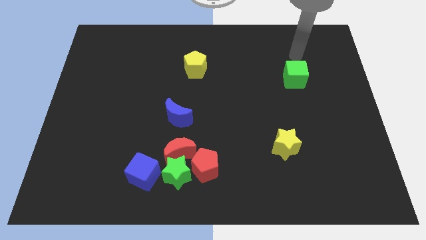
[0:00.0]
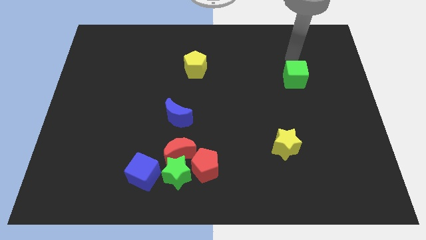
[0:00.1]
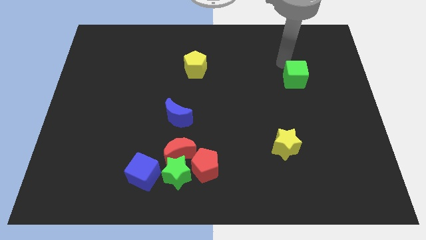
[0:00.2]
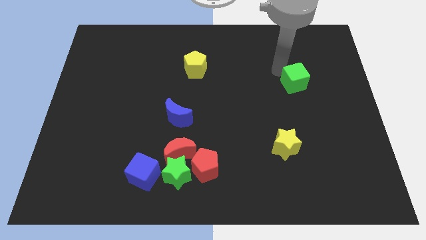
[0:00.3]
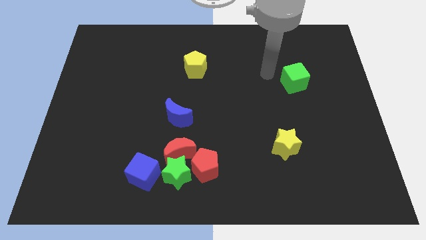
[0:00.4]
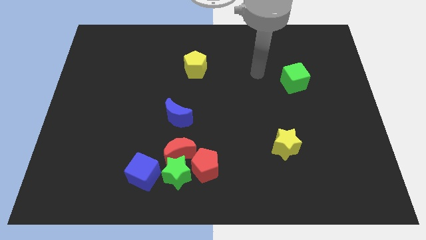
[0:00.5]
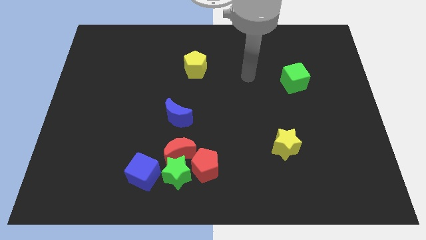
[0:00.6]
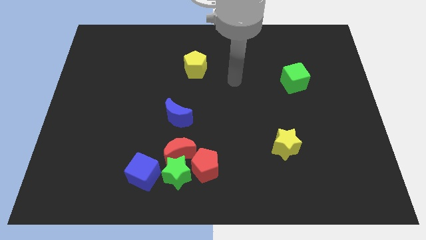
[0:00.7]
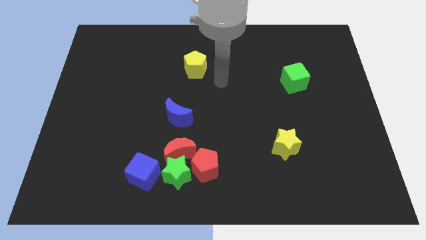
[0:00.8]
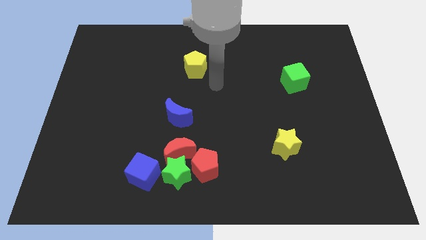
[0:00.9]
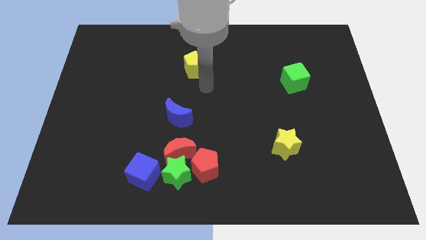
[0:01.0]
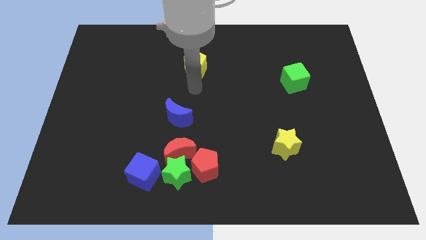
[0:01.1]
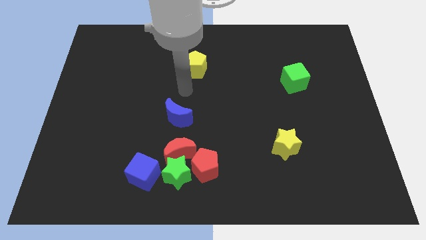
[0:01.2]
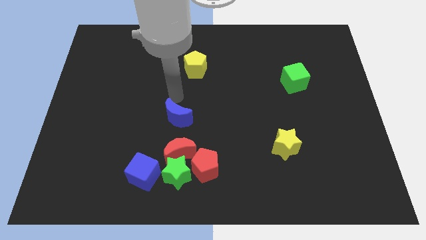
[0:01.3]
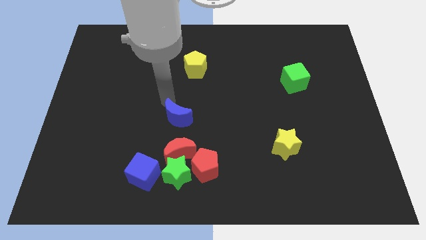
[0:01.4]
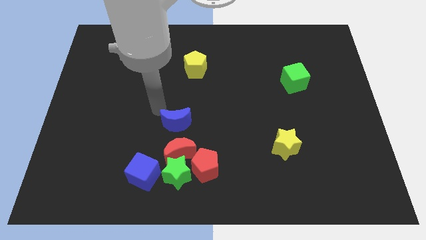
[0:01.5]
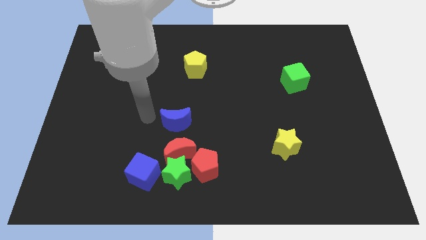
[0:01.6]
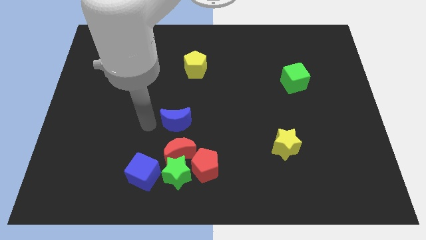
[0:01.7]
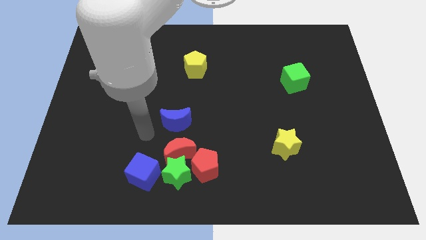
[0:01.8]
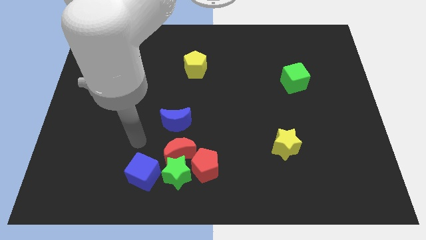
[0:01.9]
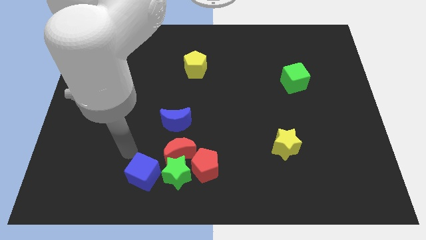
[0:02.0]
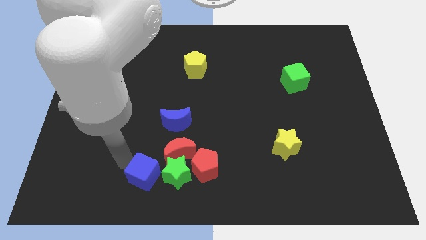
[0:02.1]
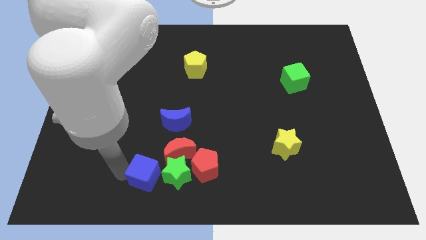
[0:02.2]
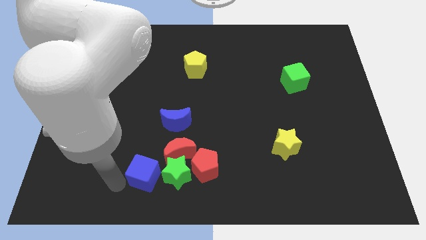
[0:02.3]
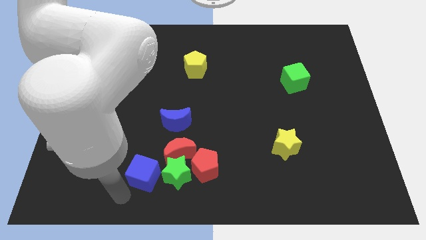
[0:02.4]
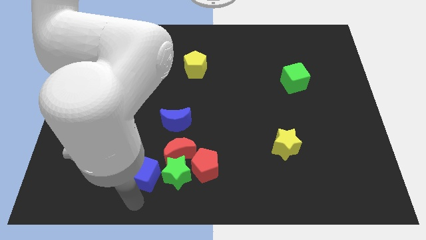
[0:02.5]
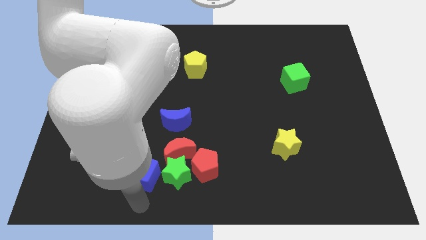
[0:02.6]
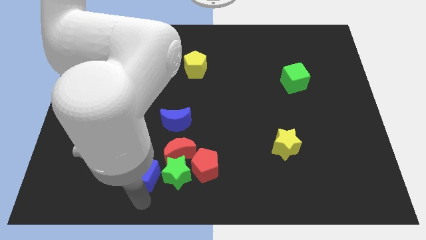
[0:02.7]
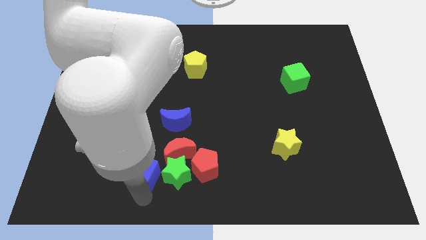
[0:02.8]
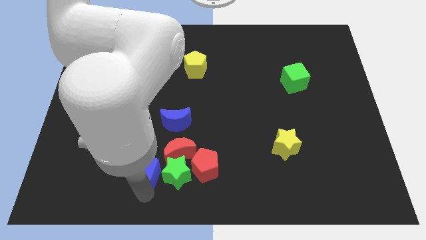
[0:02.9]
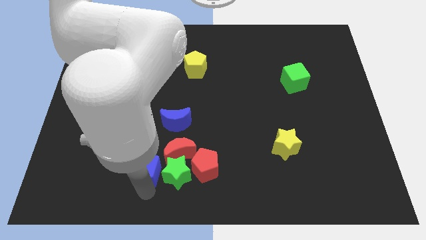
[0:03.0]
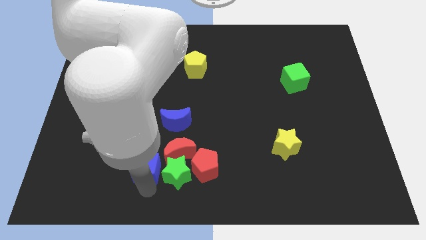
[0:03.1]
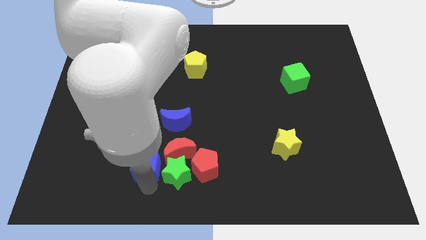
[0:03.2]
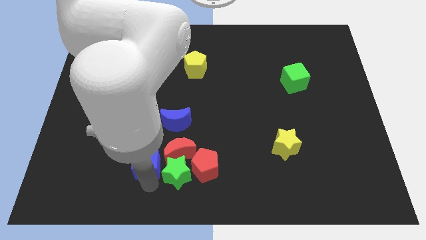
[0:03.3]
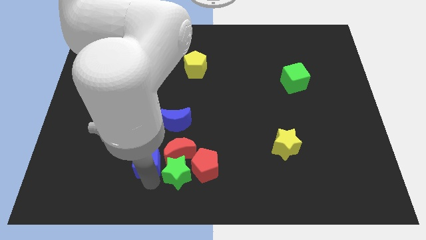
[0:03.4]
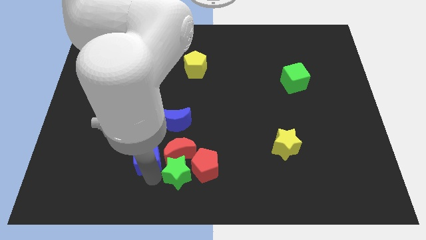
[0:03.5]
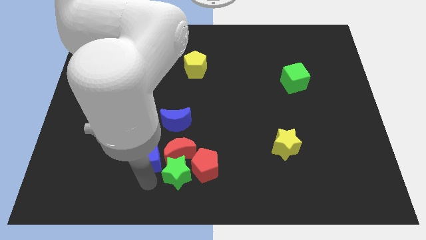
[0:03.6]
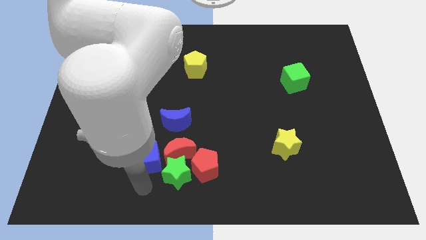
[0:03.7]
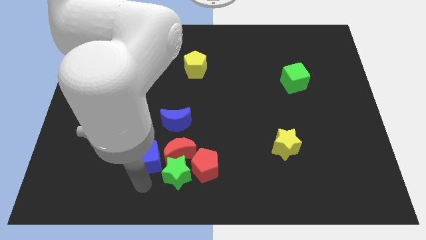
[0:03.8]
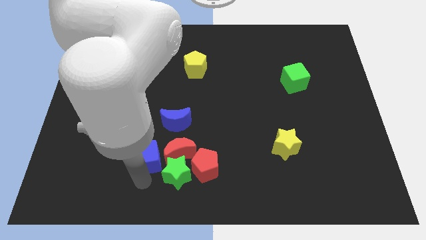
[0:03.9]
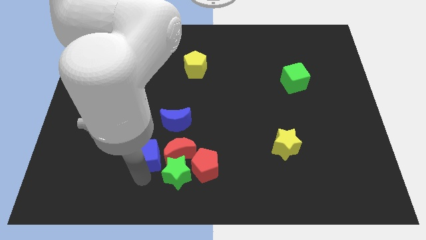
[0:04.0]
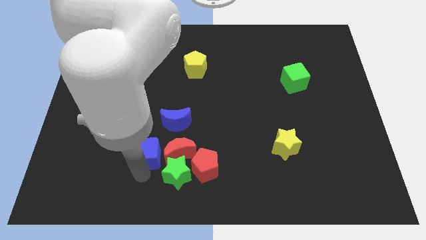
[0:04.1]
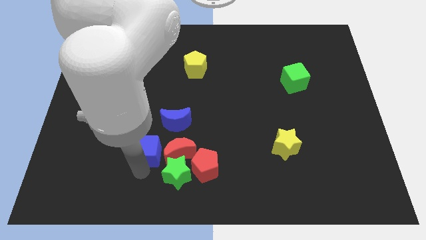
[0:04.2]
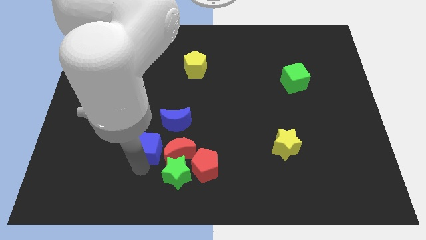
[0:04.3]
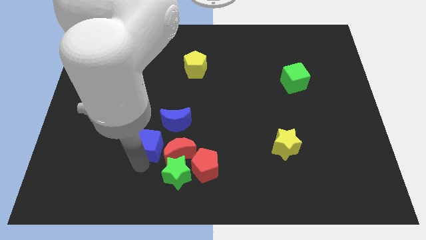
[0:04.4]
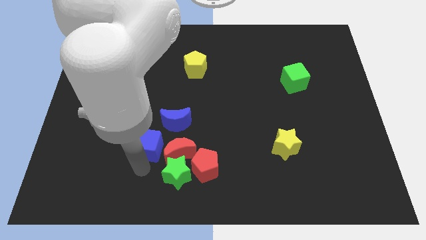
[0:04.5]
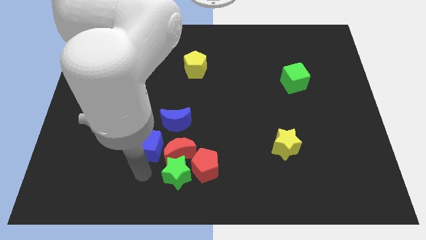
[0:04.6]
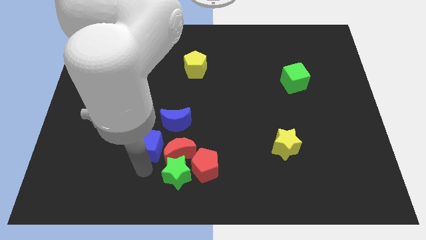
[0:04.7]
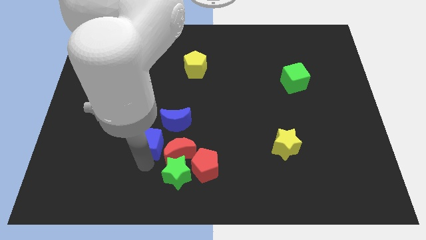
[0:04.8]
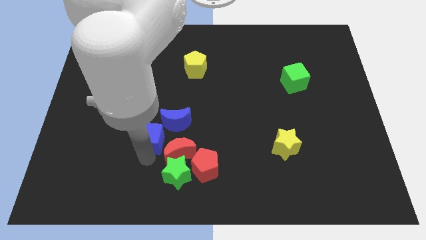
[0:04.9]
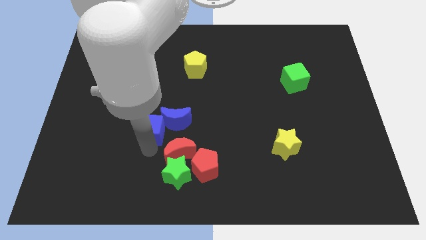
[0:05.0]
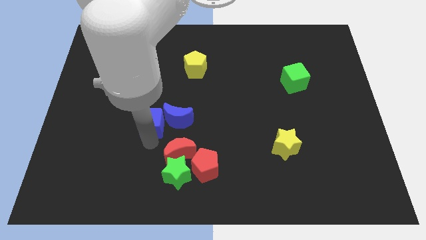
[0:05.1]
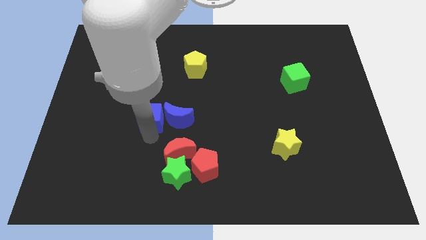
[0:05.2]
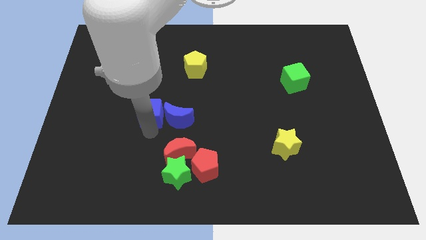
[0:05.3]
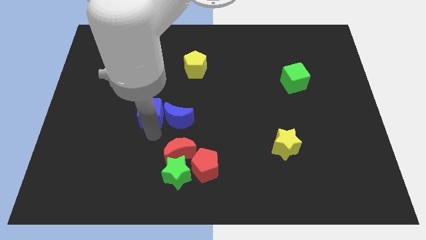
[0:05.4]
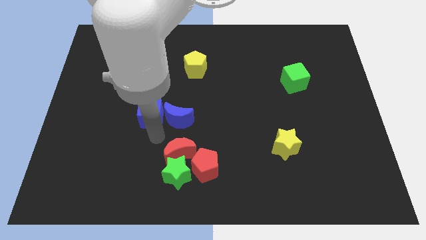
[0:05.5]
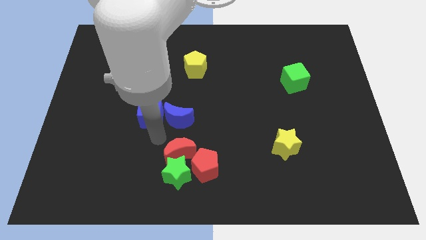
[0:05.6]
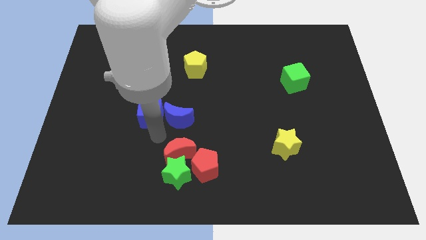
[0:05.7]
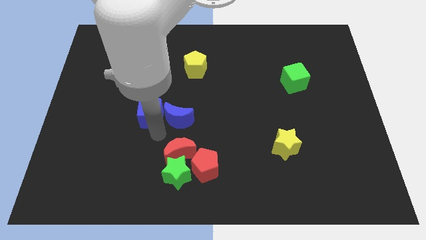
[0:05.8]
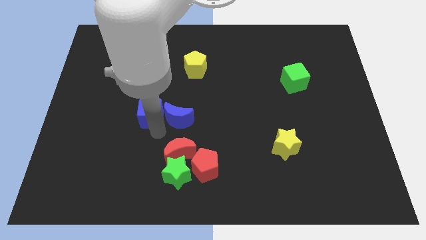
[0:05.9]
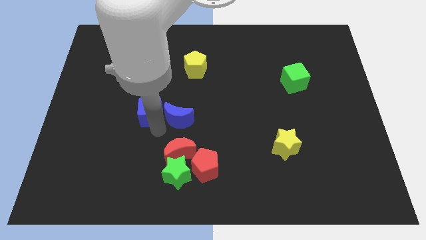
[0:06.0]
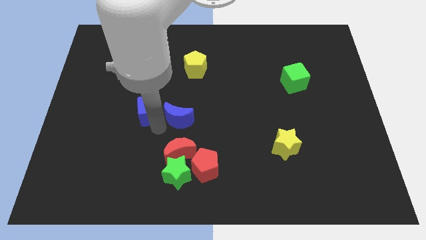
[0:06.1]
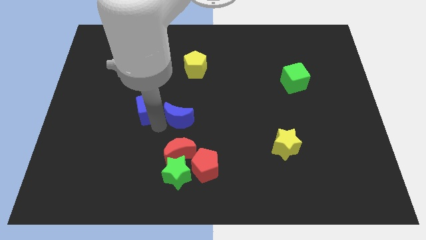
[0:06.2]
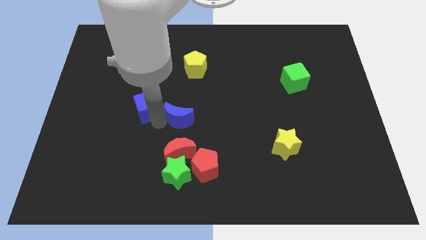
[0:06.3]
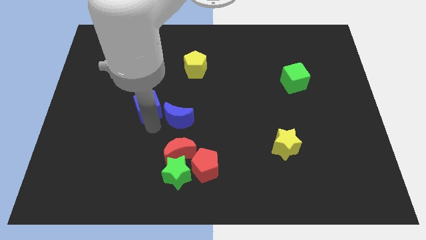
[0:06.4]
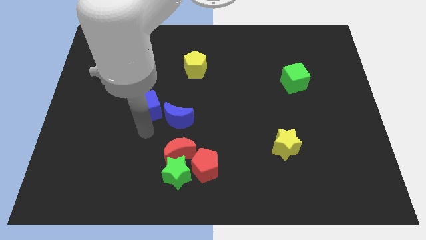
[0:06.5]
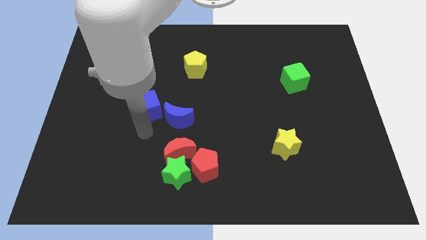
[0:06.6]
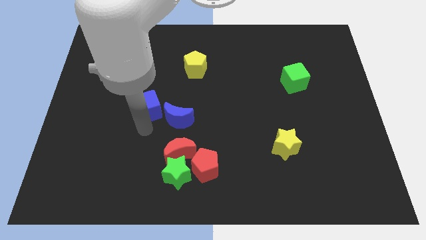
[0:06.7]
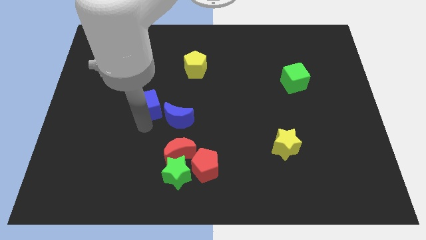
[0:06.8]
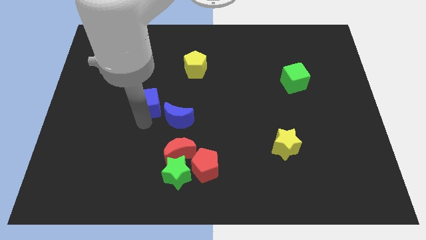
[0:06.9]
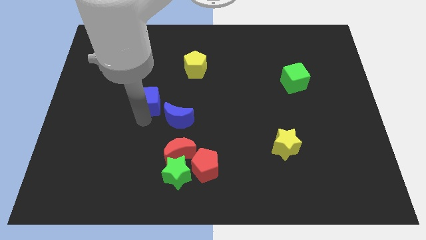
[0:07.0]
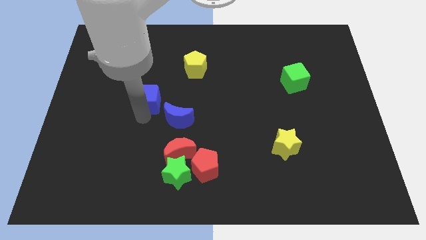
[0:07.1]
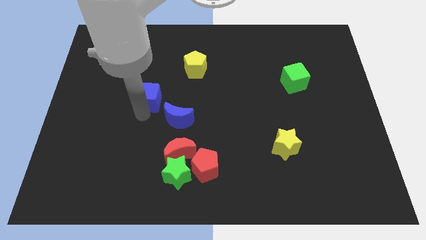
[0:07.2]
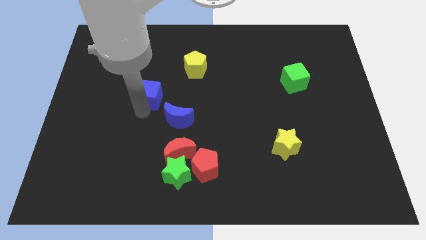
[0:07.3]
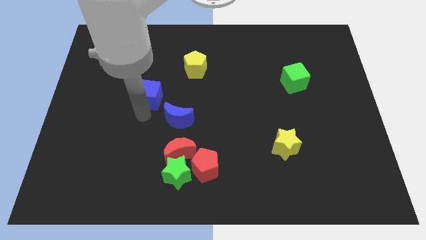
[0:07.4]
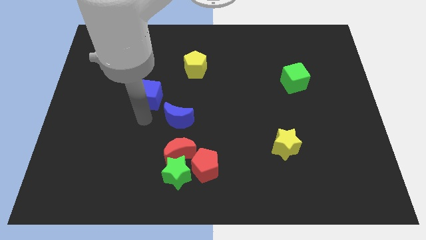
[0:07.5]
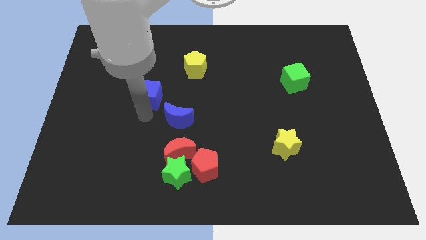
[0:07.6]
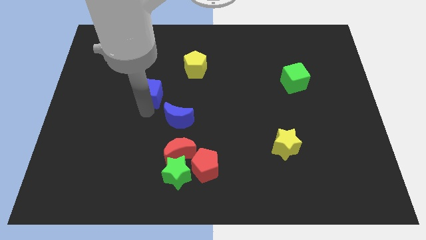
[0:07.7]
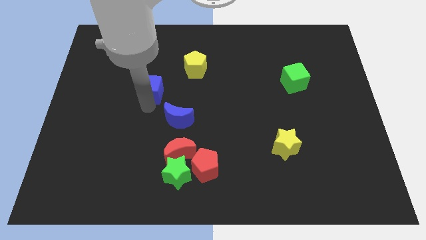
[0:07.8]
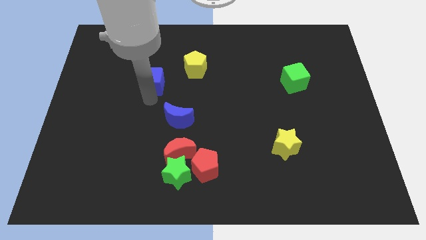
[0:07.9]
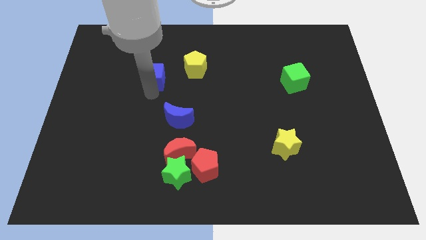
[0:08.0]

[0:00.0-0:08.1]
slide the blue cube left of the yellow pentagon
